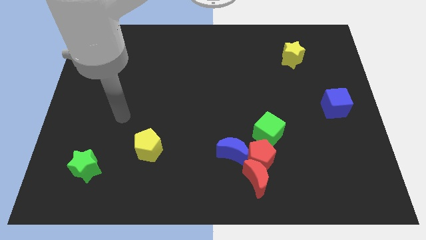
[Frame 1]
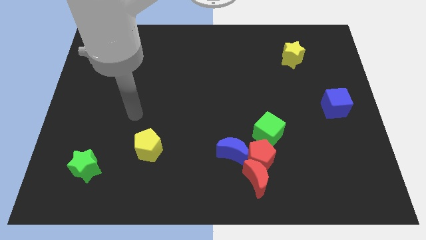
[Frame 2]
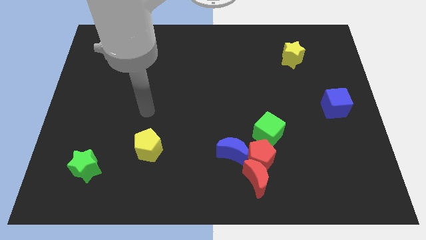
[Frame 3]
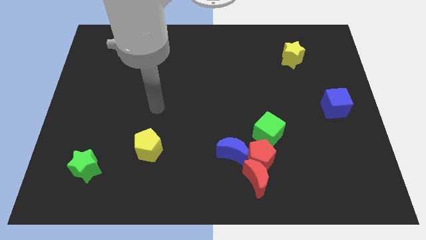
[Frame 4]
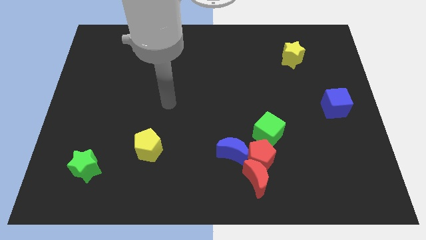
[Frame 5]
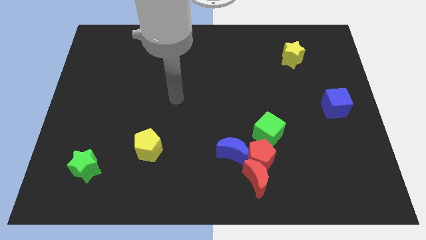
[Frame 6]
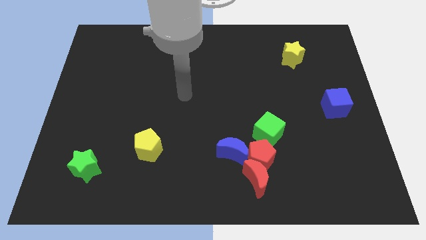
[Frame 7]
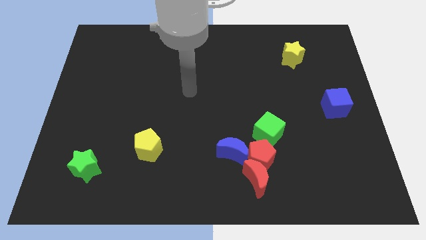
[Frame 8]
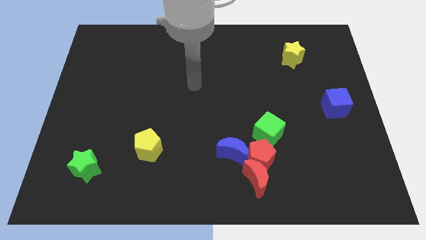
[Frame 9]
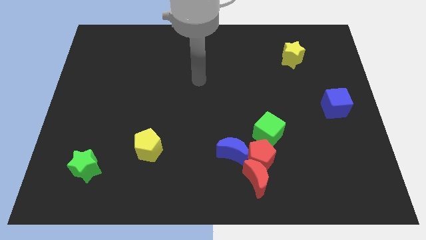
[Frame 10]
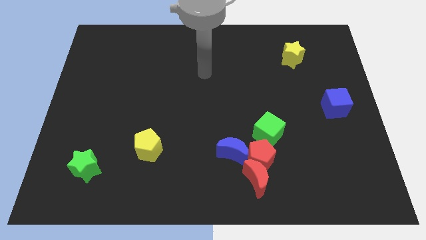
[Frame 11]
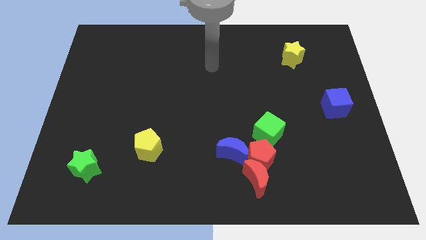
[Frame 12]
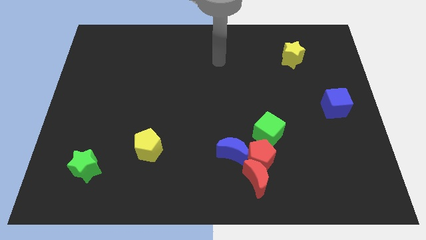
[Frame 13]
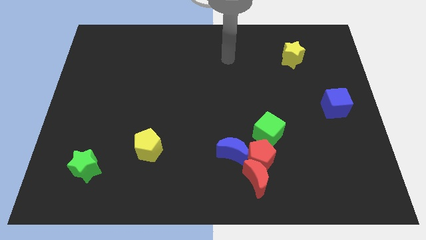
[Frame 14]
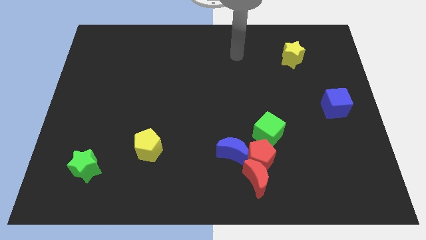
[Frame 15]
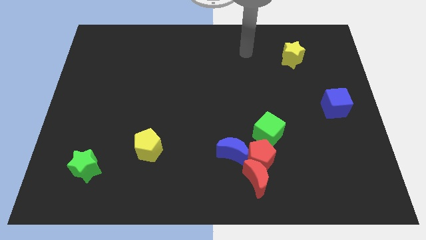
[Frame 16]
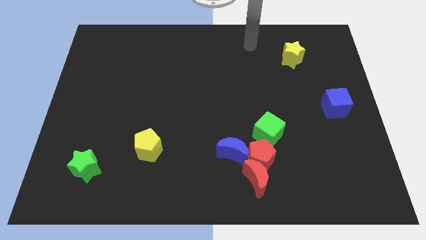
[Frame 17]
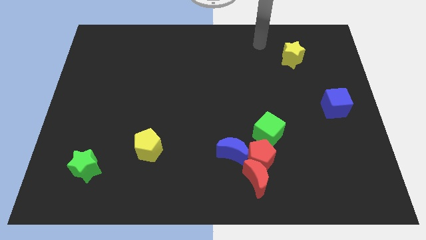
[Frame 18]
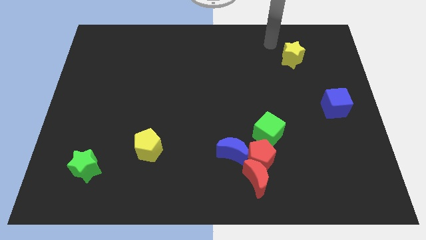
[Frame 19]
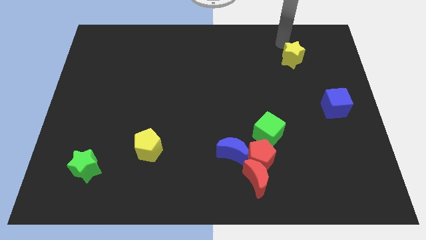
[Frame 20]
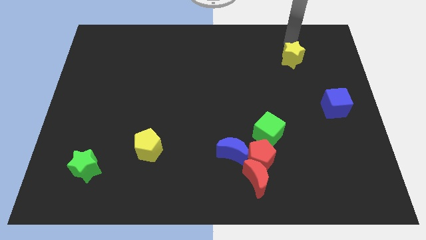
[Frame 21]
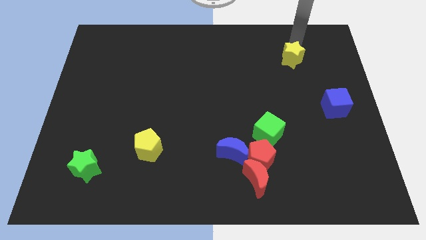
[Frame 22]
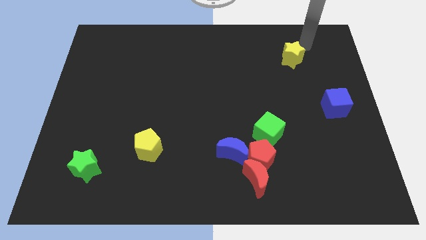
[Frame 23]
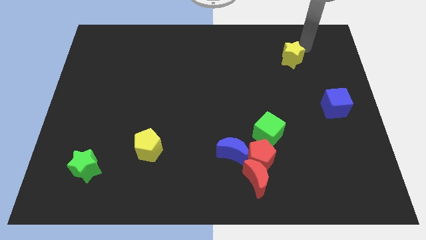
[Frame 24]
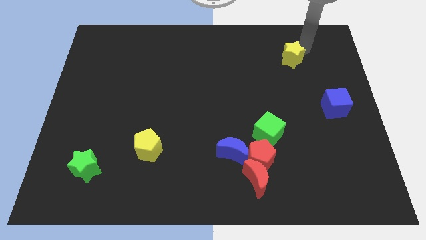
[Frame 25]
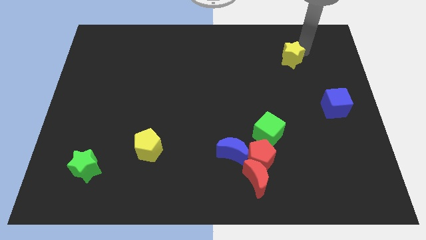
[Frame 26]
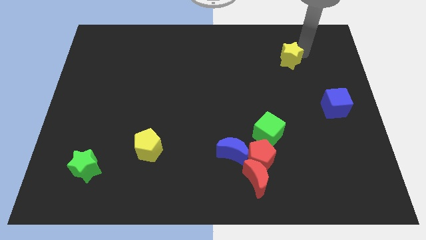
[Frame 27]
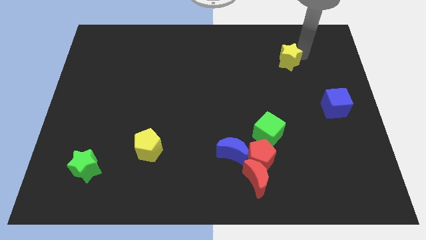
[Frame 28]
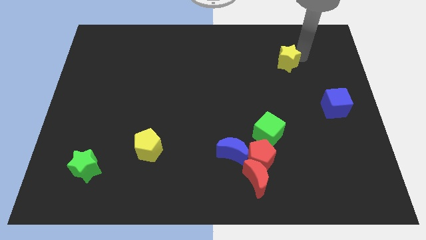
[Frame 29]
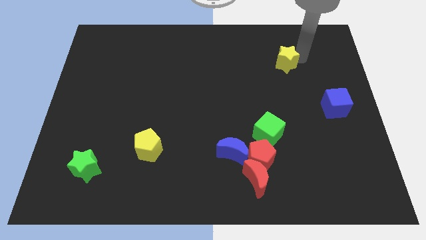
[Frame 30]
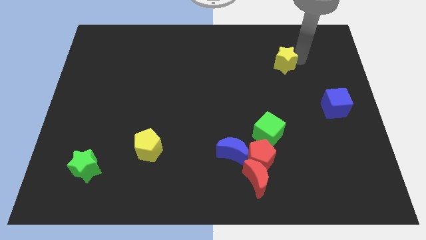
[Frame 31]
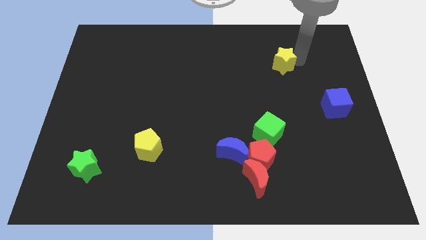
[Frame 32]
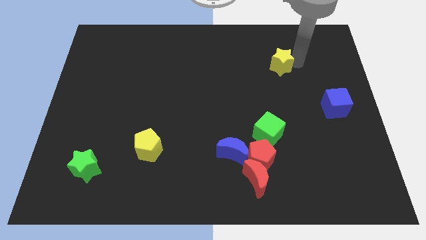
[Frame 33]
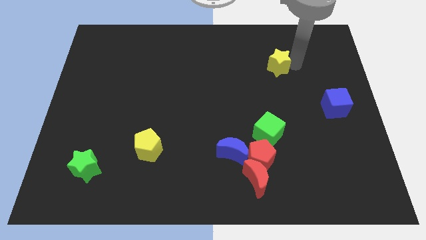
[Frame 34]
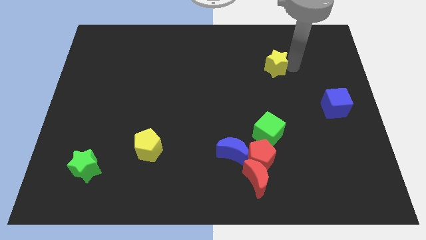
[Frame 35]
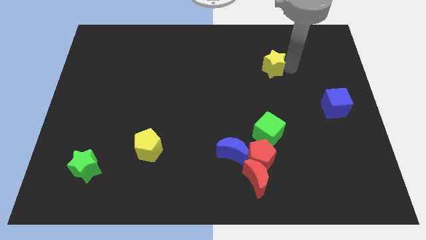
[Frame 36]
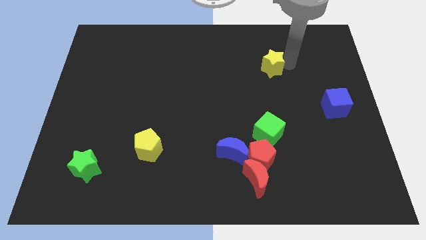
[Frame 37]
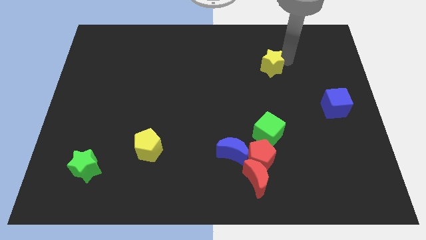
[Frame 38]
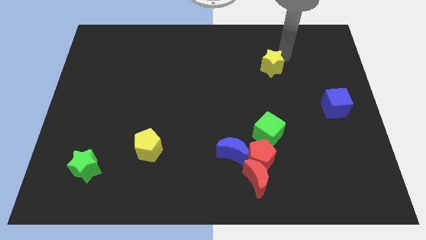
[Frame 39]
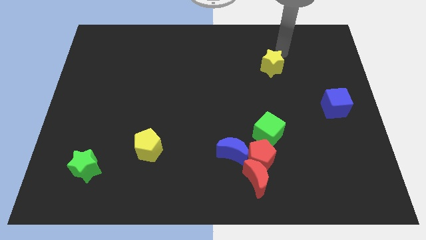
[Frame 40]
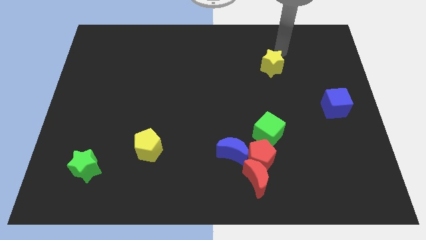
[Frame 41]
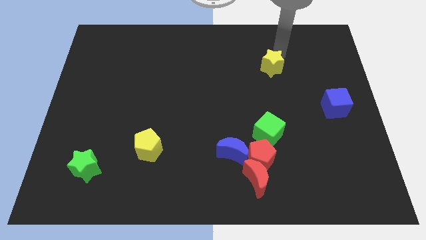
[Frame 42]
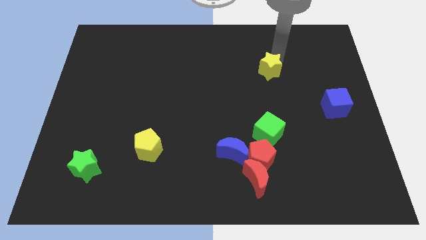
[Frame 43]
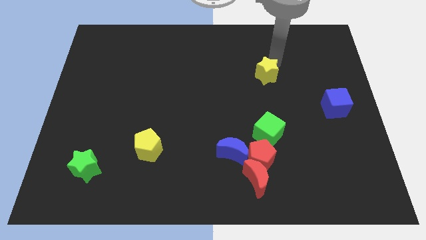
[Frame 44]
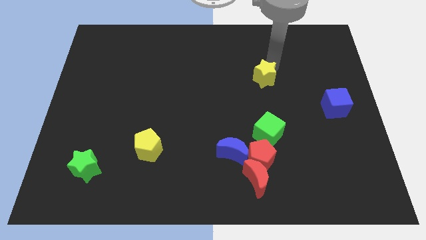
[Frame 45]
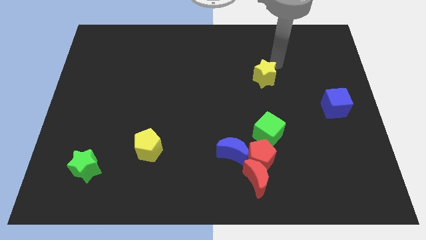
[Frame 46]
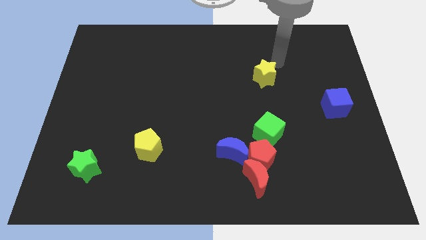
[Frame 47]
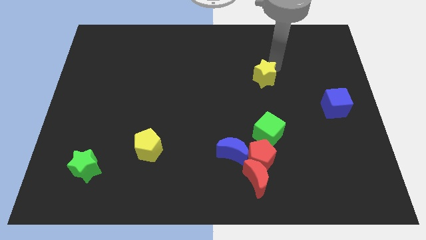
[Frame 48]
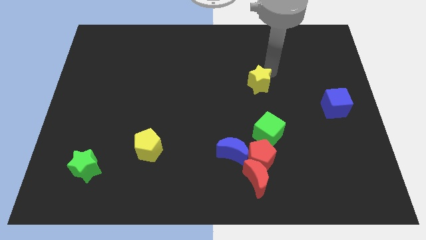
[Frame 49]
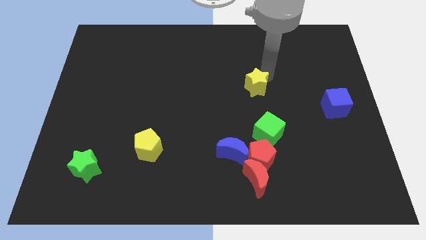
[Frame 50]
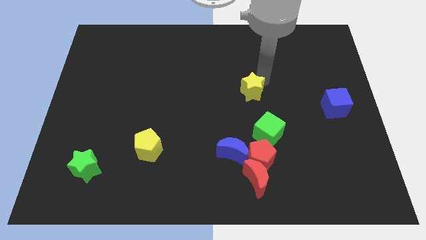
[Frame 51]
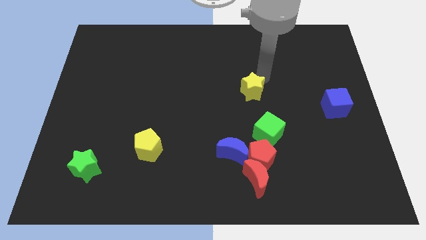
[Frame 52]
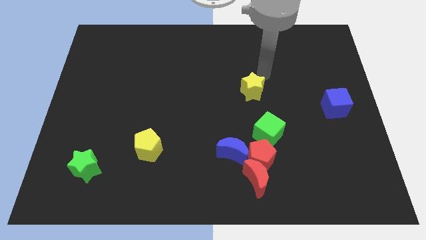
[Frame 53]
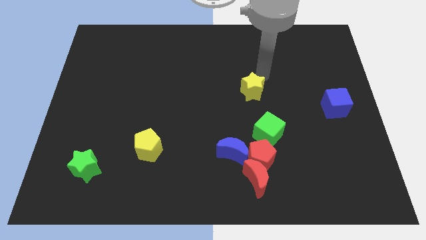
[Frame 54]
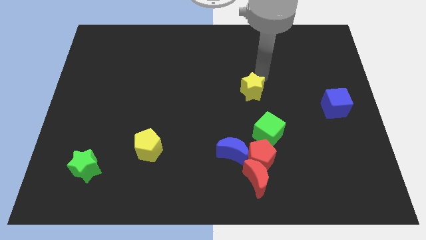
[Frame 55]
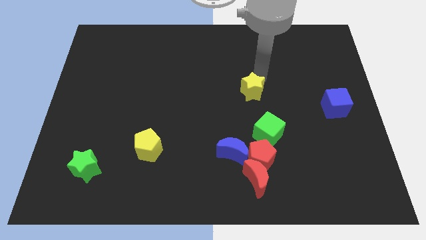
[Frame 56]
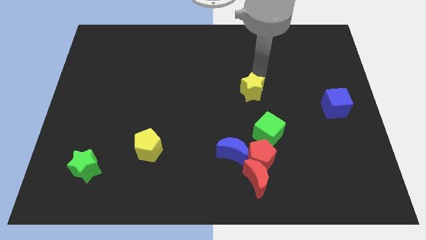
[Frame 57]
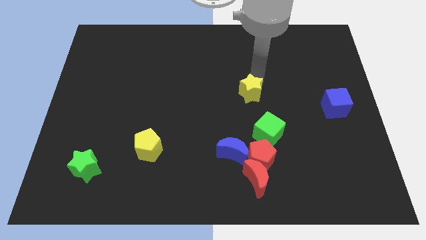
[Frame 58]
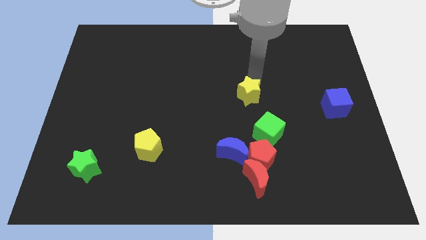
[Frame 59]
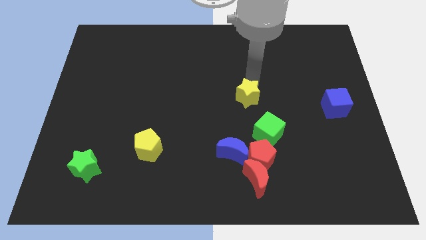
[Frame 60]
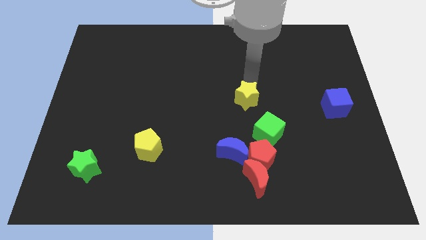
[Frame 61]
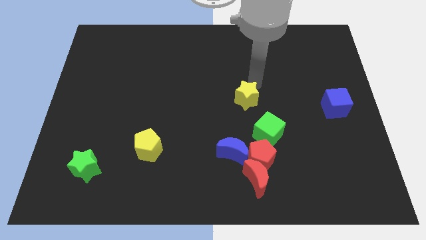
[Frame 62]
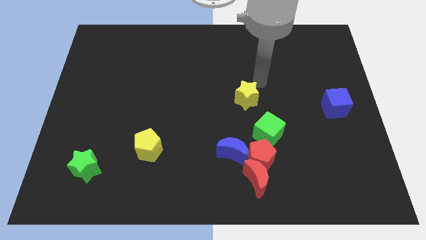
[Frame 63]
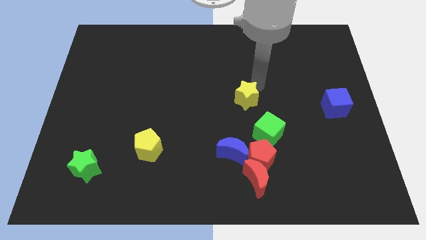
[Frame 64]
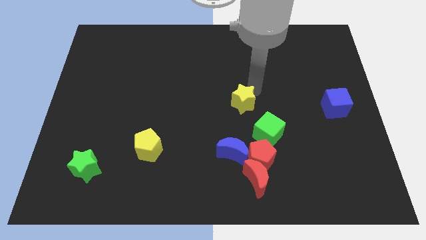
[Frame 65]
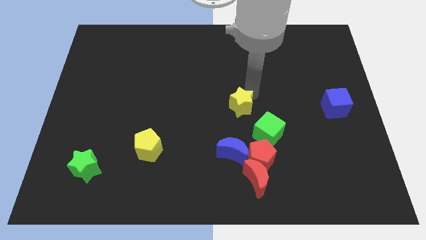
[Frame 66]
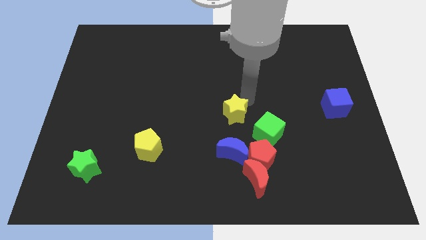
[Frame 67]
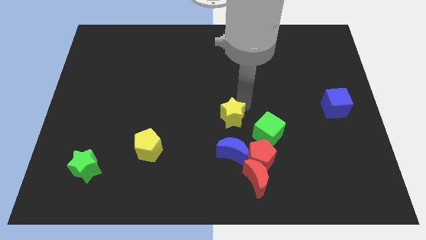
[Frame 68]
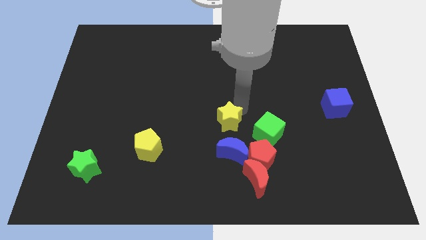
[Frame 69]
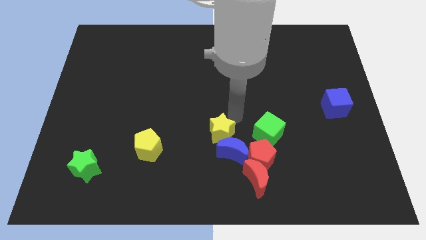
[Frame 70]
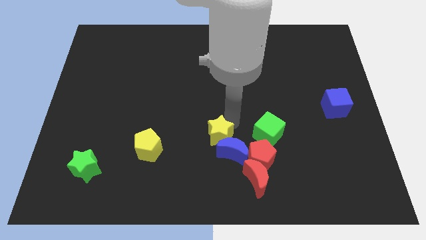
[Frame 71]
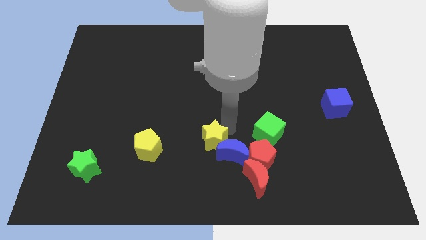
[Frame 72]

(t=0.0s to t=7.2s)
put the yellow star just right of the yellow pentagon

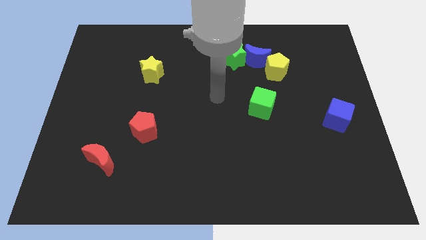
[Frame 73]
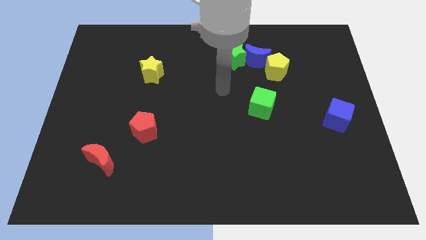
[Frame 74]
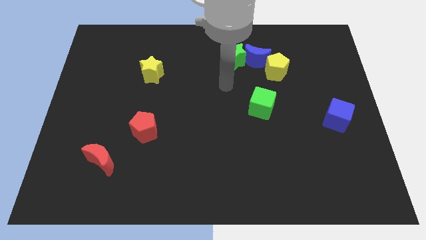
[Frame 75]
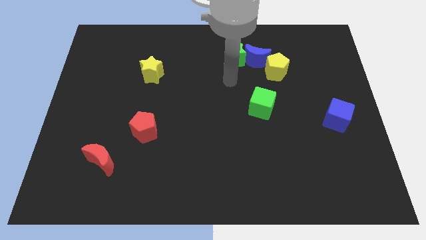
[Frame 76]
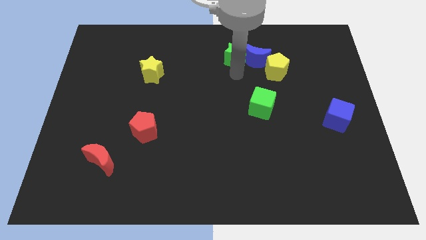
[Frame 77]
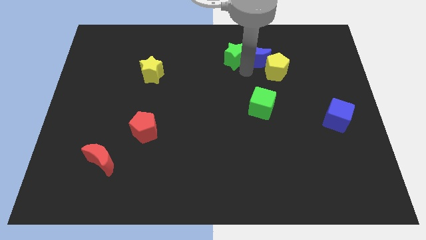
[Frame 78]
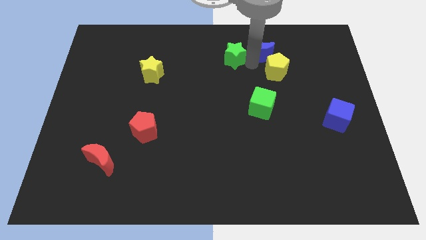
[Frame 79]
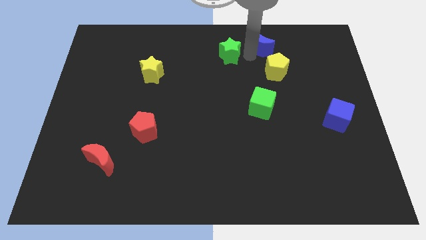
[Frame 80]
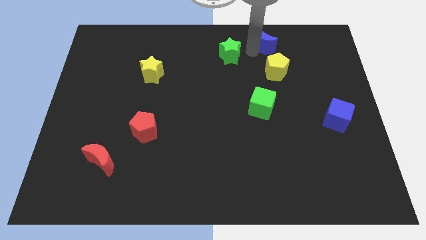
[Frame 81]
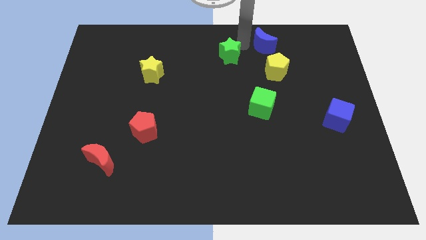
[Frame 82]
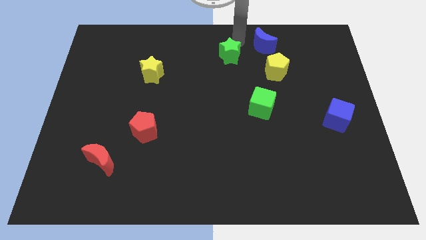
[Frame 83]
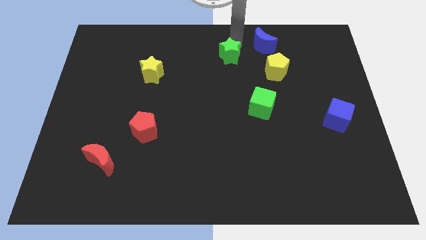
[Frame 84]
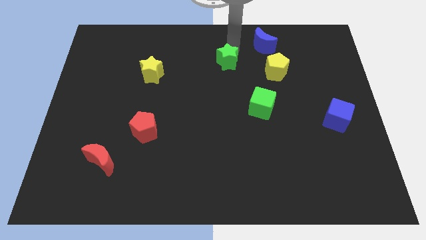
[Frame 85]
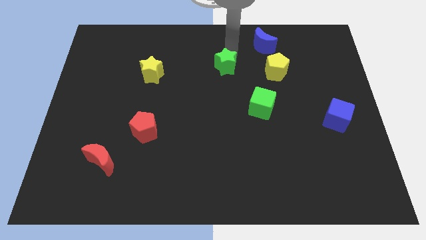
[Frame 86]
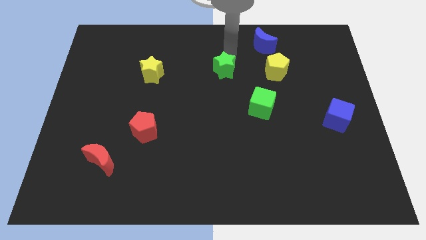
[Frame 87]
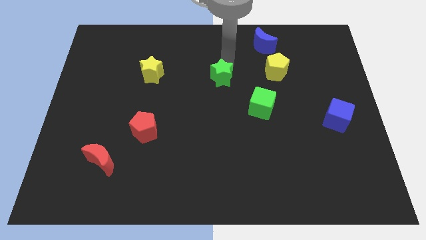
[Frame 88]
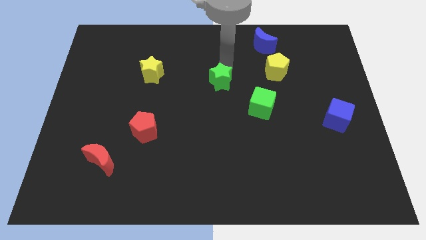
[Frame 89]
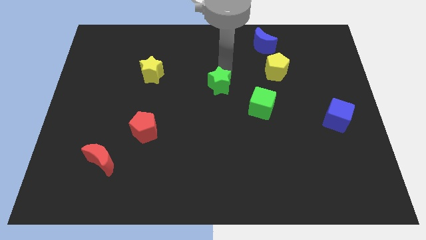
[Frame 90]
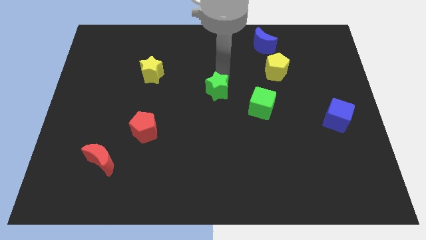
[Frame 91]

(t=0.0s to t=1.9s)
push the green star to the left of the green cube
